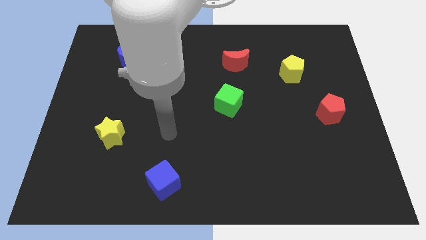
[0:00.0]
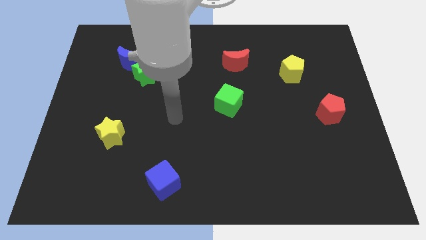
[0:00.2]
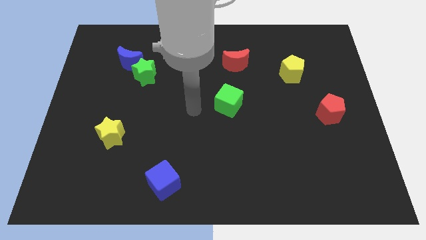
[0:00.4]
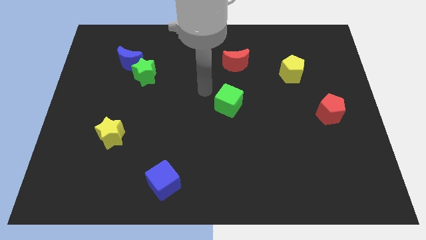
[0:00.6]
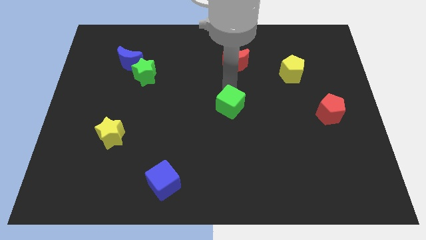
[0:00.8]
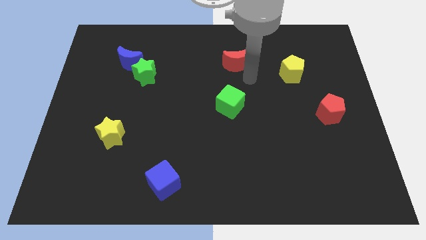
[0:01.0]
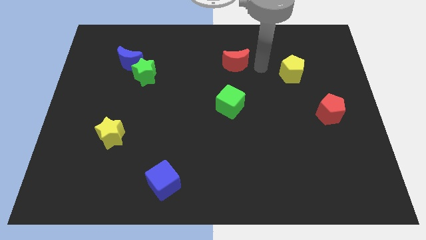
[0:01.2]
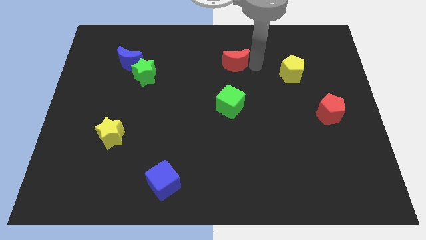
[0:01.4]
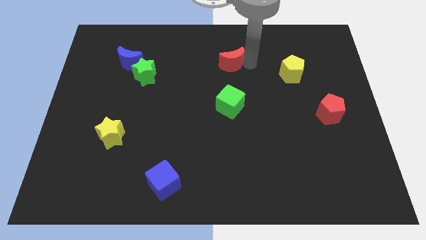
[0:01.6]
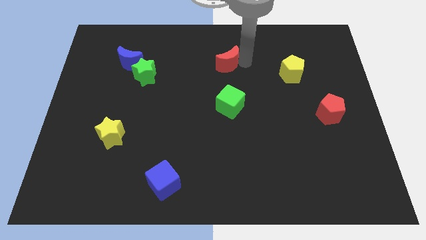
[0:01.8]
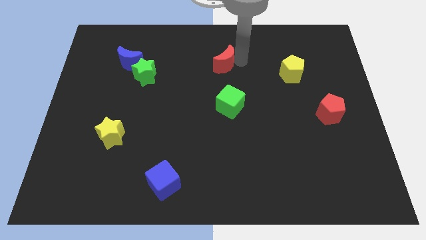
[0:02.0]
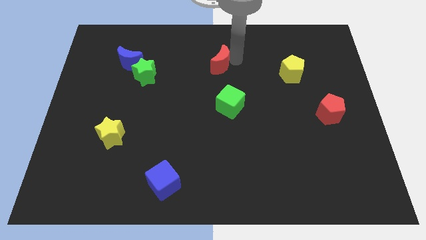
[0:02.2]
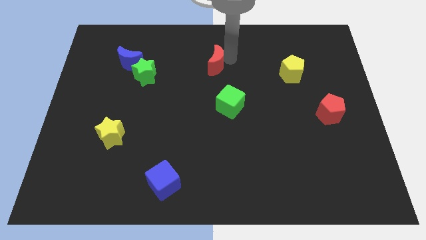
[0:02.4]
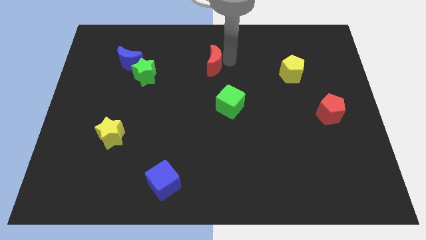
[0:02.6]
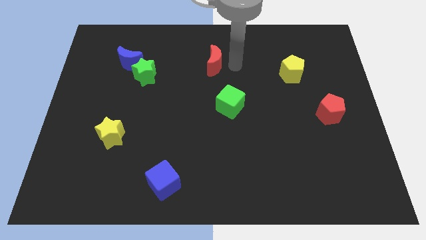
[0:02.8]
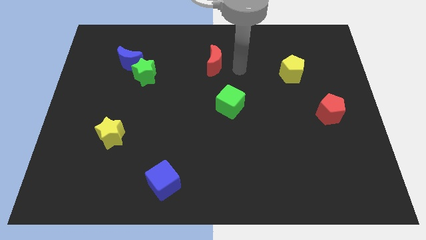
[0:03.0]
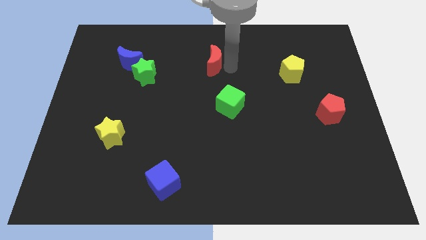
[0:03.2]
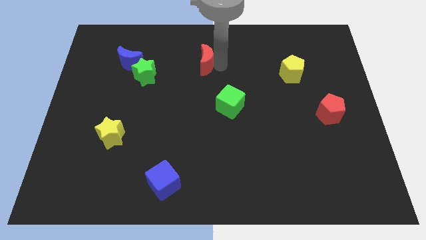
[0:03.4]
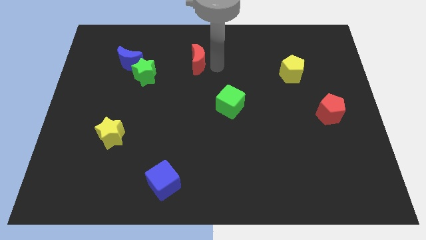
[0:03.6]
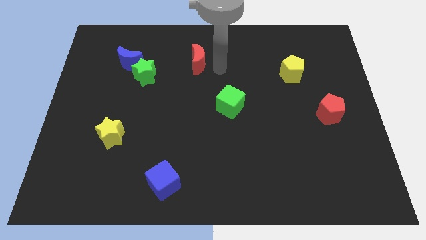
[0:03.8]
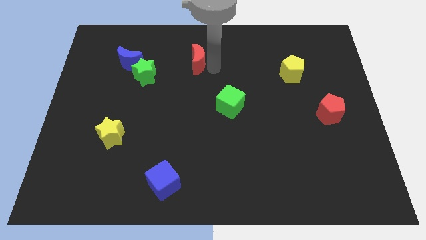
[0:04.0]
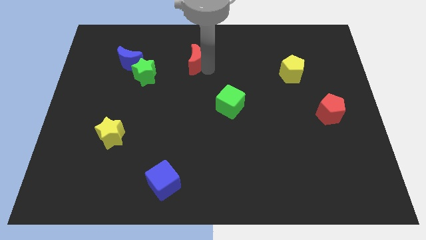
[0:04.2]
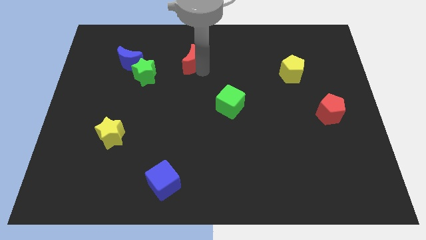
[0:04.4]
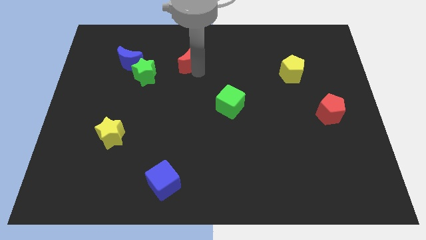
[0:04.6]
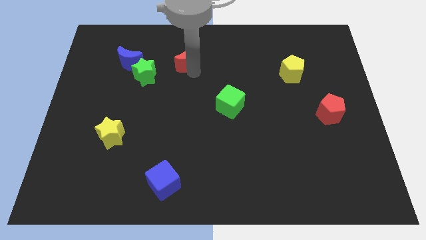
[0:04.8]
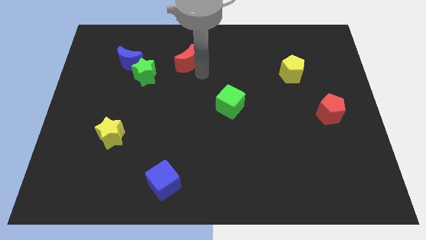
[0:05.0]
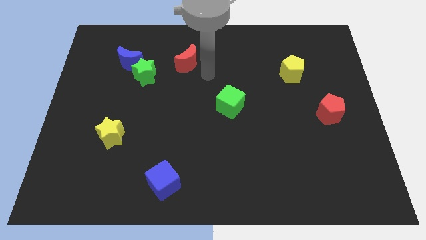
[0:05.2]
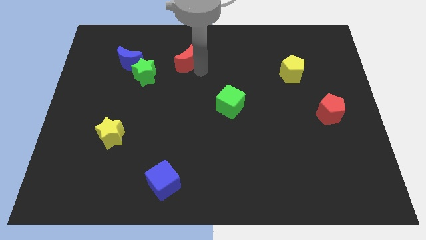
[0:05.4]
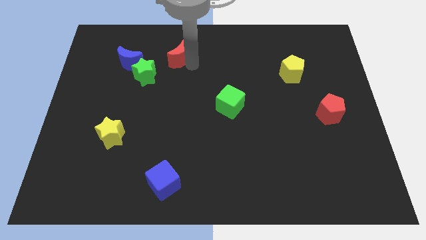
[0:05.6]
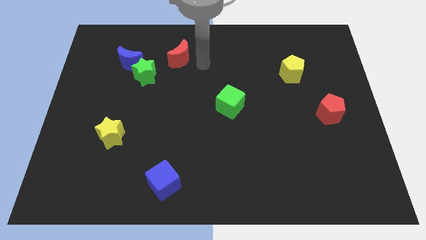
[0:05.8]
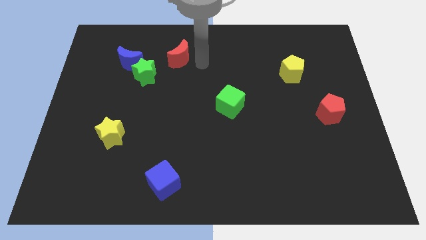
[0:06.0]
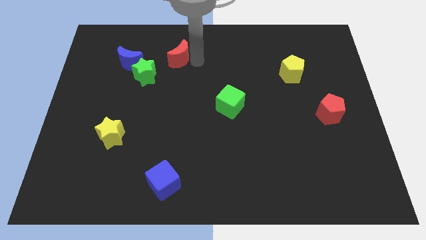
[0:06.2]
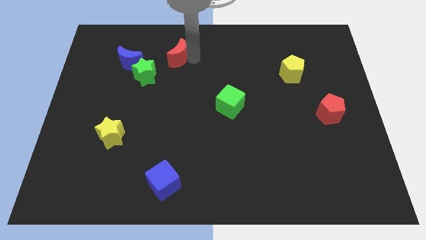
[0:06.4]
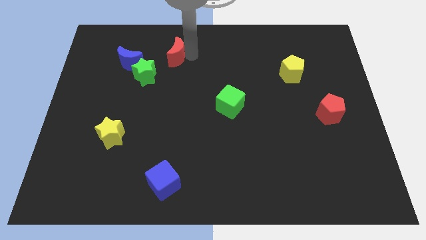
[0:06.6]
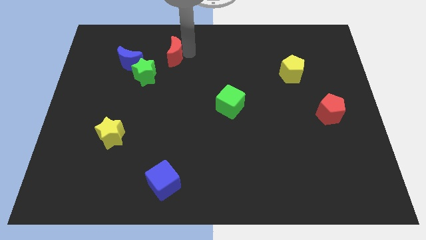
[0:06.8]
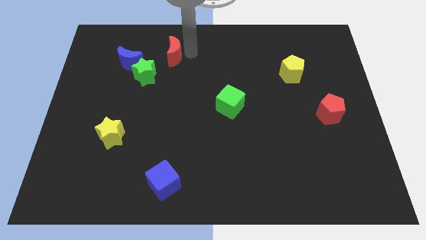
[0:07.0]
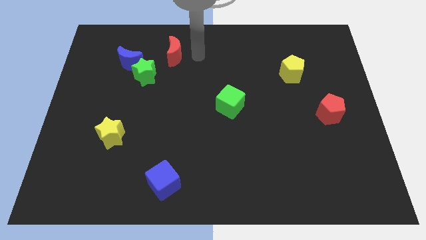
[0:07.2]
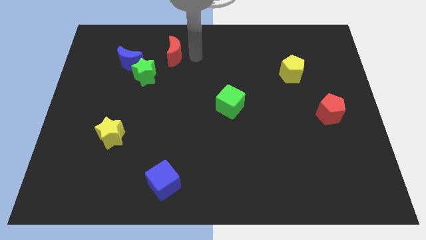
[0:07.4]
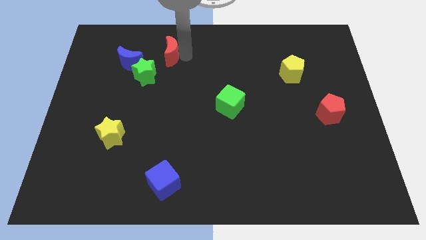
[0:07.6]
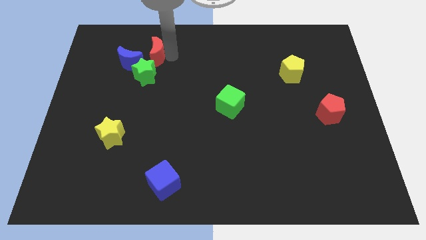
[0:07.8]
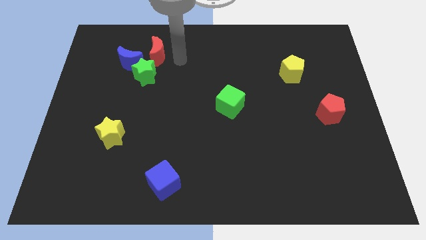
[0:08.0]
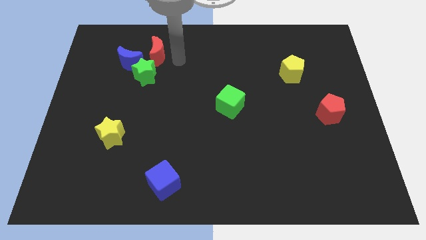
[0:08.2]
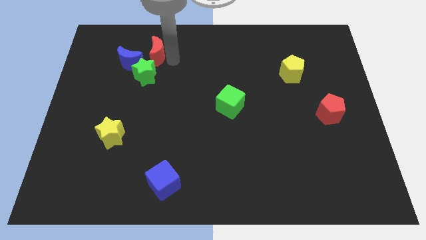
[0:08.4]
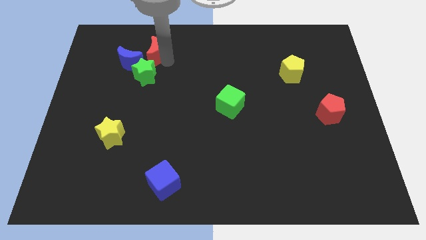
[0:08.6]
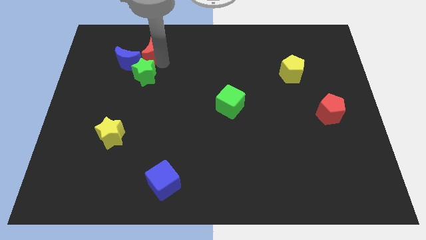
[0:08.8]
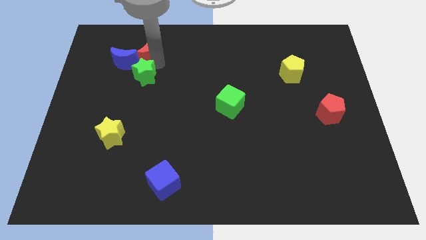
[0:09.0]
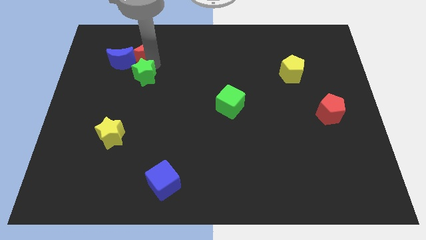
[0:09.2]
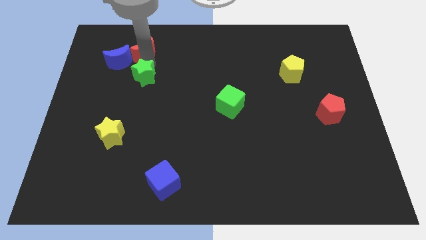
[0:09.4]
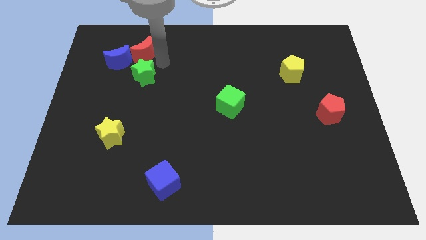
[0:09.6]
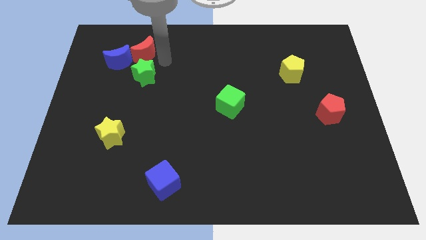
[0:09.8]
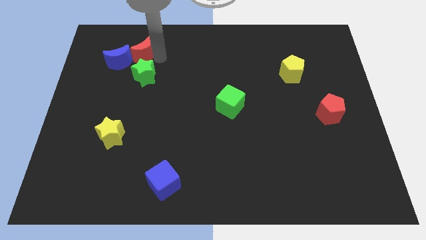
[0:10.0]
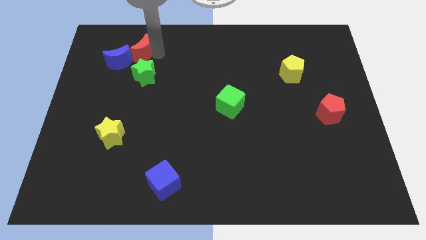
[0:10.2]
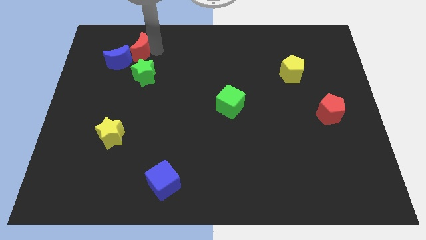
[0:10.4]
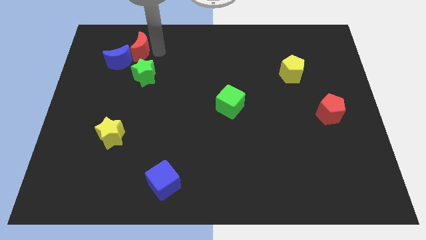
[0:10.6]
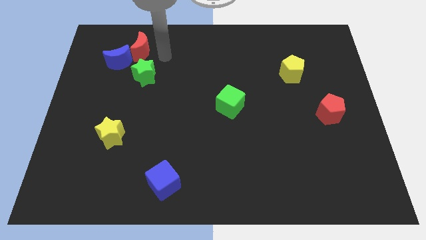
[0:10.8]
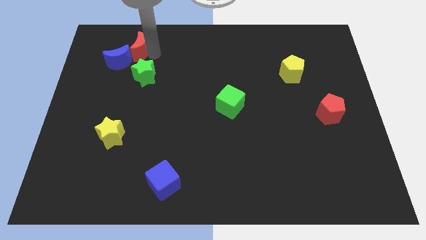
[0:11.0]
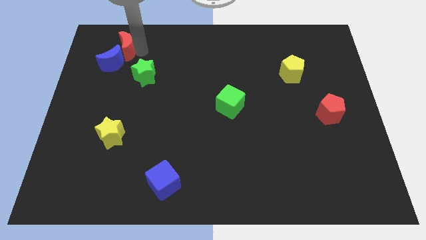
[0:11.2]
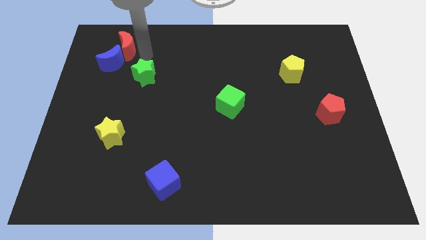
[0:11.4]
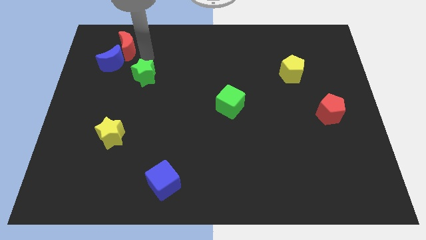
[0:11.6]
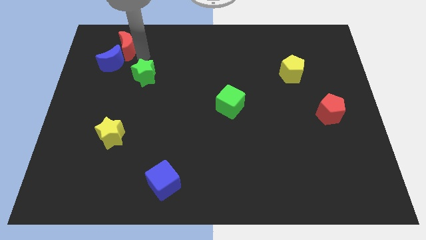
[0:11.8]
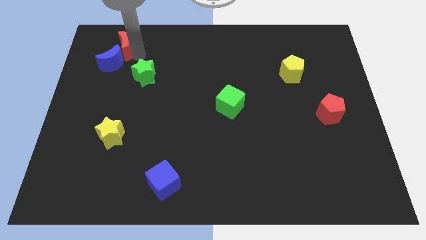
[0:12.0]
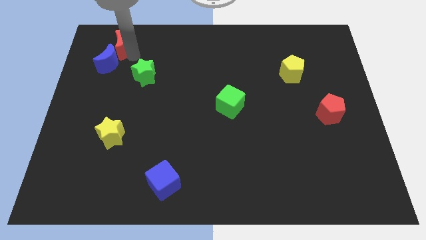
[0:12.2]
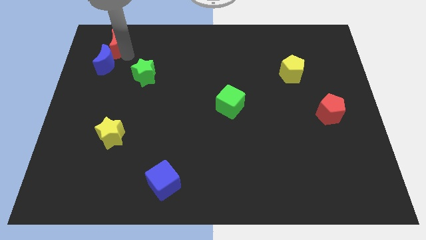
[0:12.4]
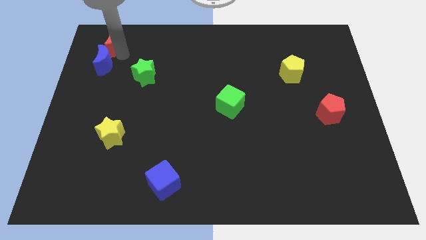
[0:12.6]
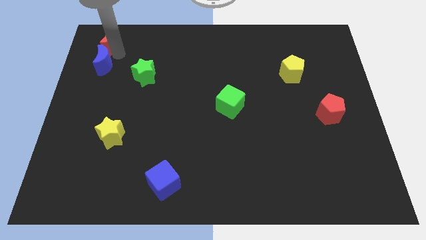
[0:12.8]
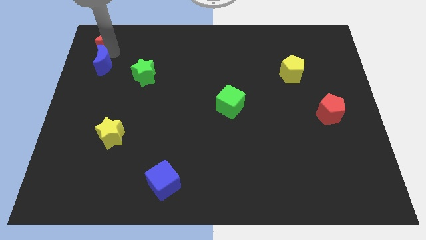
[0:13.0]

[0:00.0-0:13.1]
put the red moon to the top left of the board
